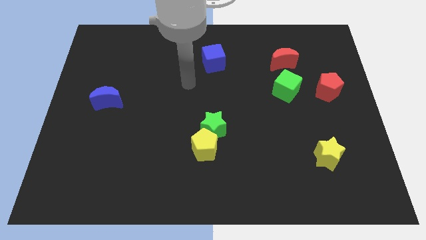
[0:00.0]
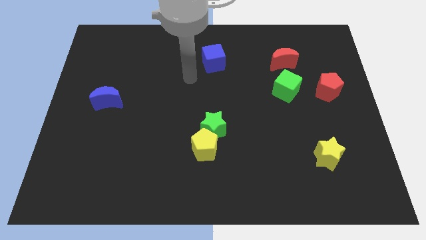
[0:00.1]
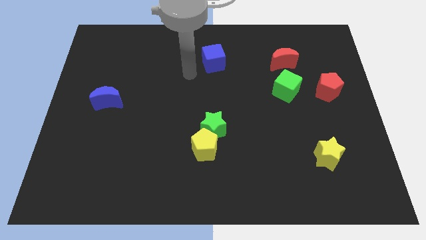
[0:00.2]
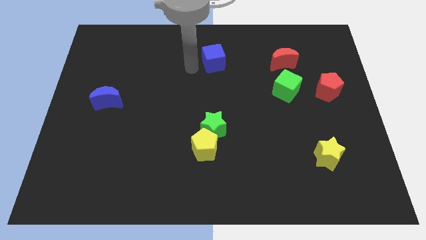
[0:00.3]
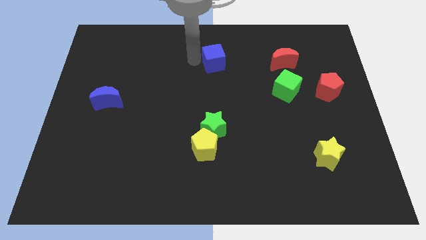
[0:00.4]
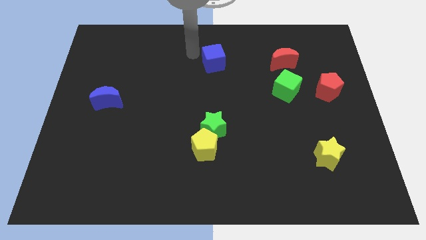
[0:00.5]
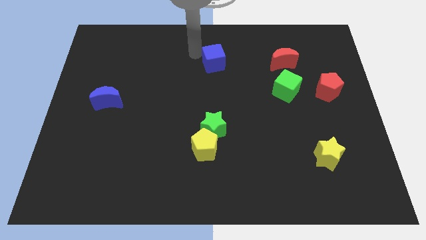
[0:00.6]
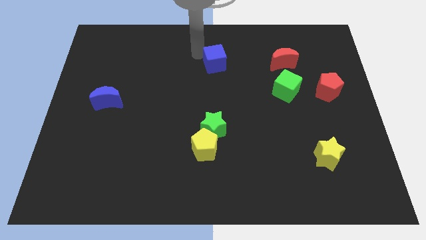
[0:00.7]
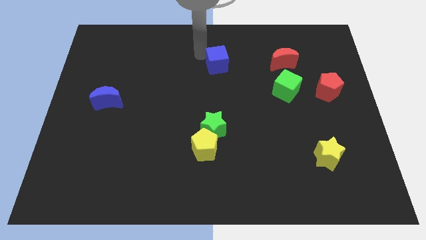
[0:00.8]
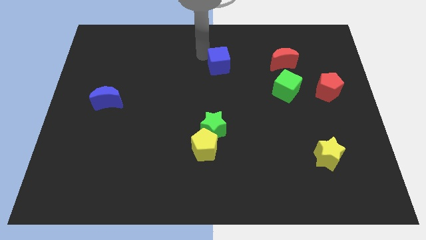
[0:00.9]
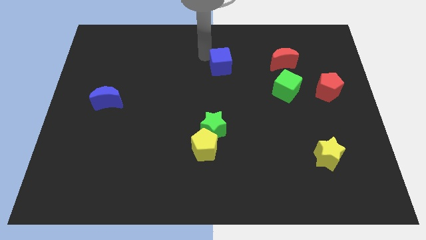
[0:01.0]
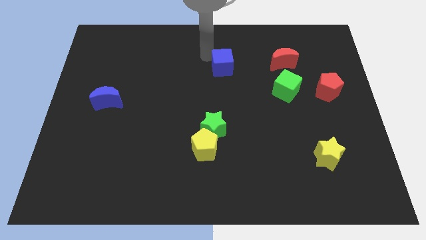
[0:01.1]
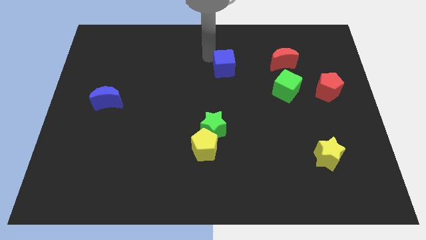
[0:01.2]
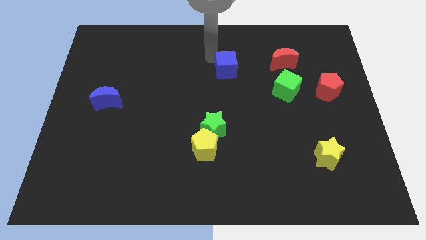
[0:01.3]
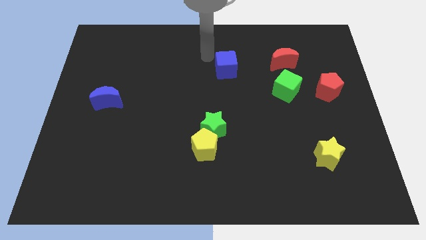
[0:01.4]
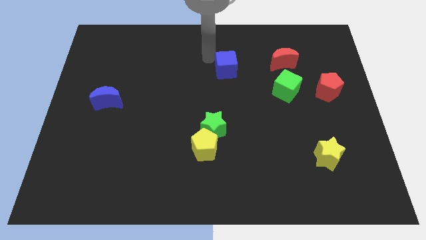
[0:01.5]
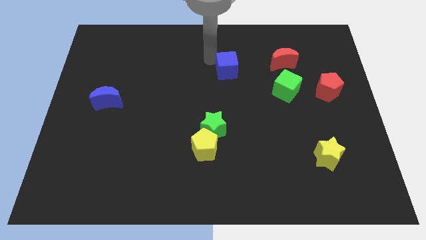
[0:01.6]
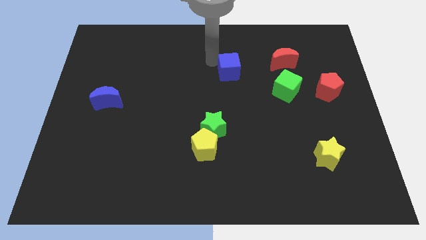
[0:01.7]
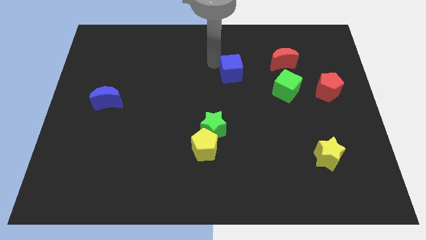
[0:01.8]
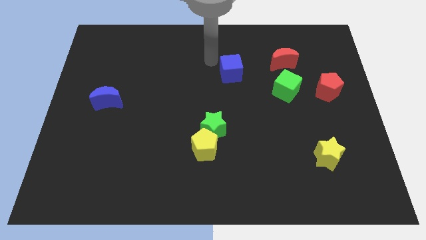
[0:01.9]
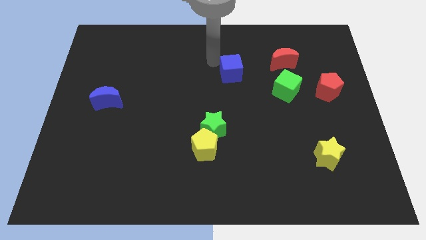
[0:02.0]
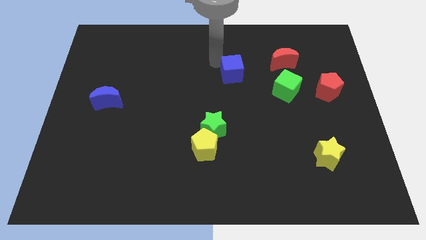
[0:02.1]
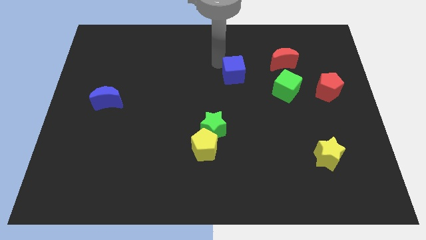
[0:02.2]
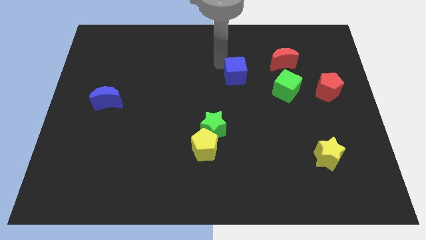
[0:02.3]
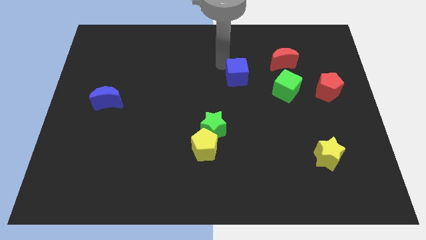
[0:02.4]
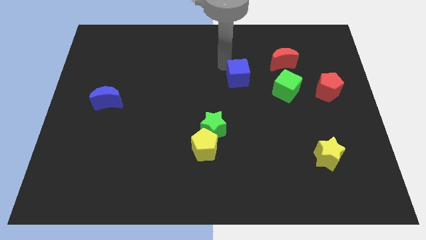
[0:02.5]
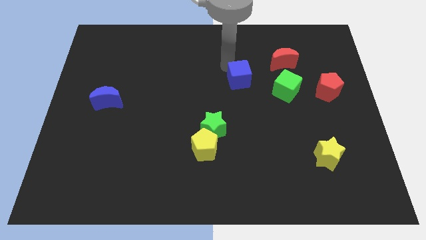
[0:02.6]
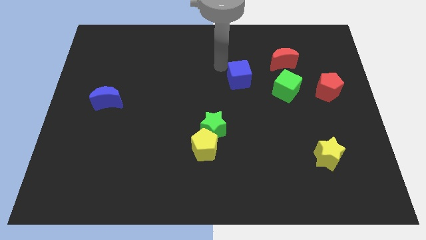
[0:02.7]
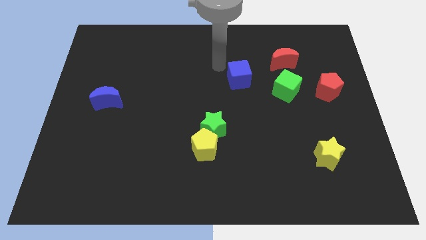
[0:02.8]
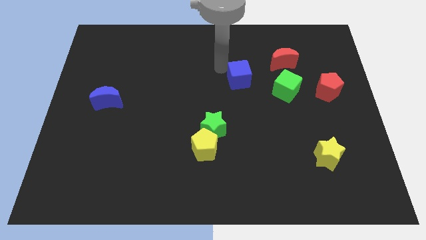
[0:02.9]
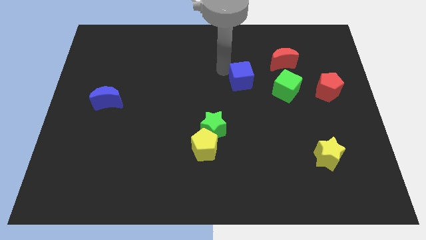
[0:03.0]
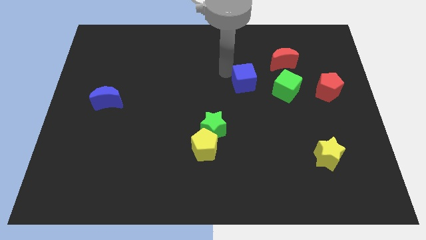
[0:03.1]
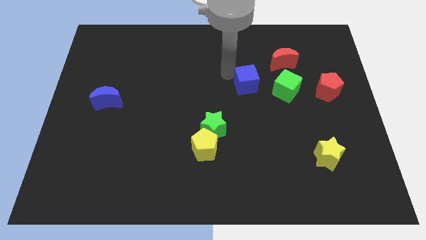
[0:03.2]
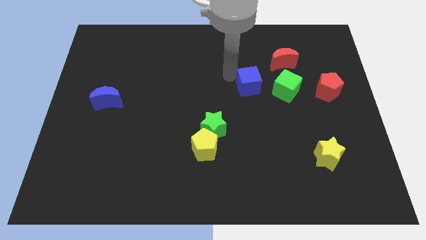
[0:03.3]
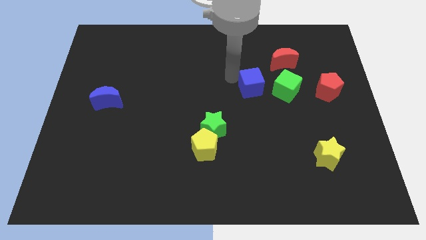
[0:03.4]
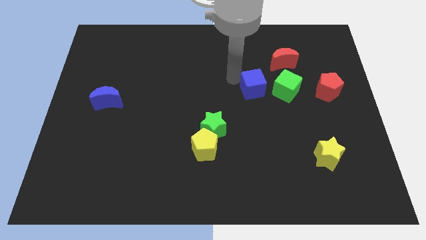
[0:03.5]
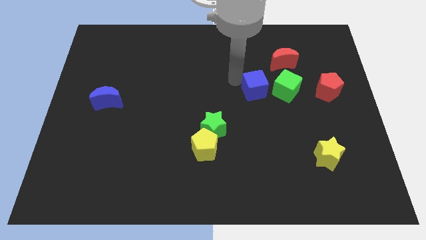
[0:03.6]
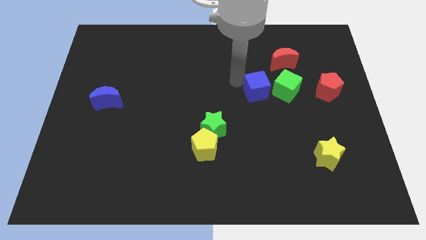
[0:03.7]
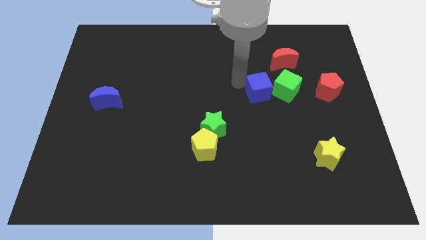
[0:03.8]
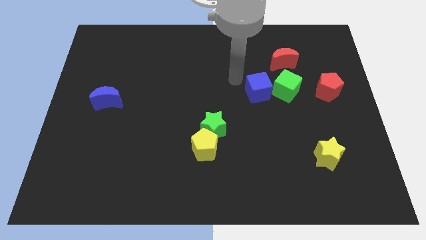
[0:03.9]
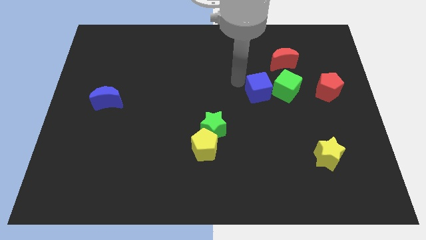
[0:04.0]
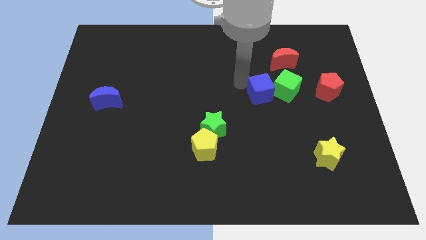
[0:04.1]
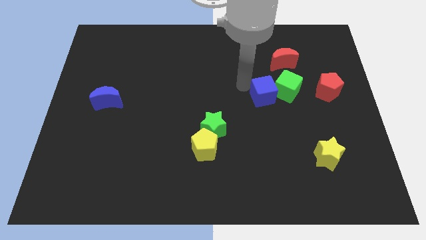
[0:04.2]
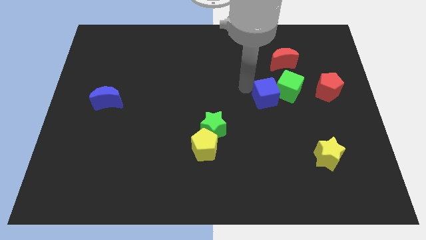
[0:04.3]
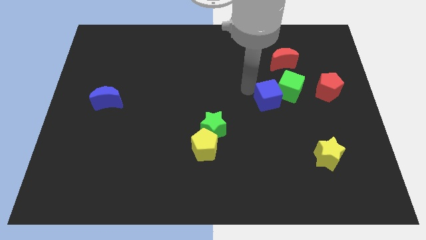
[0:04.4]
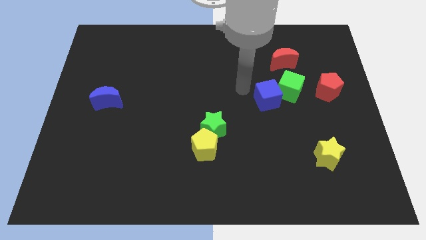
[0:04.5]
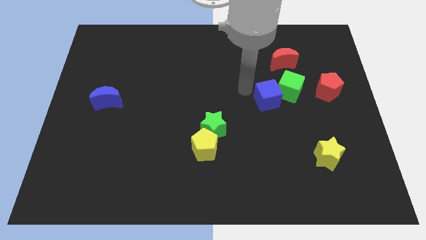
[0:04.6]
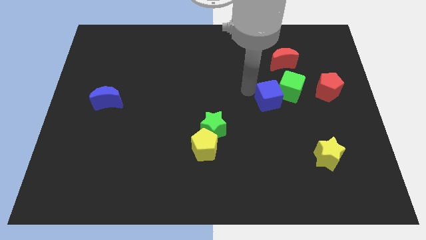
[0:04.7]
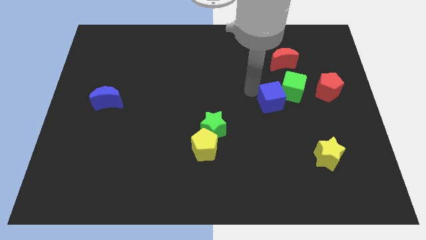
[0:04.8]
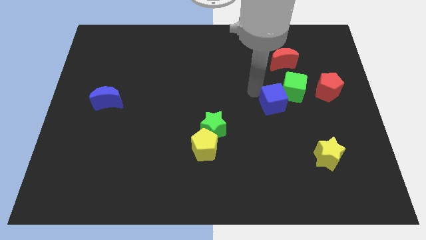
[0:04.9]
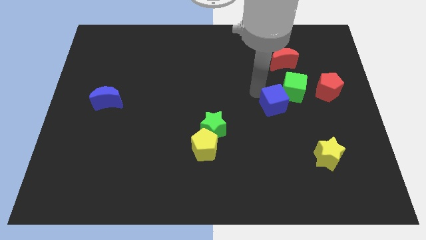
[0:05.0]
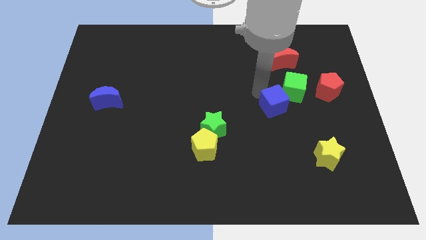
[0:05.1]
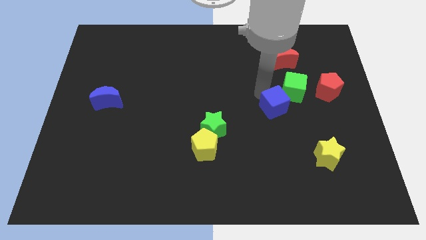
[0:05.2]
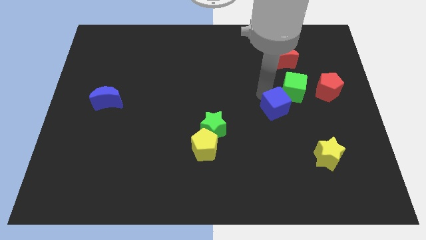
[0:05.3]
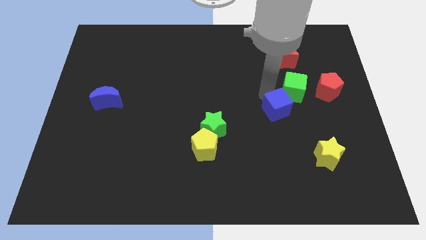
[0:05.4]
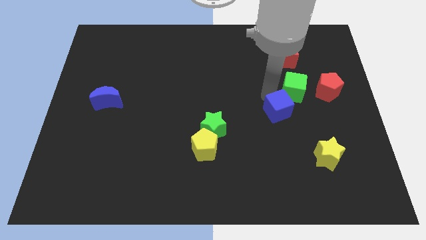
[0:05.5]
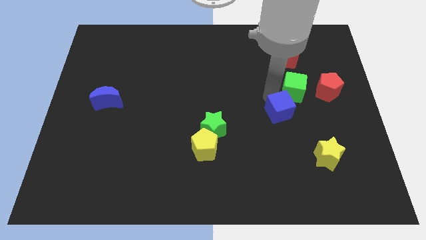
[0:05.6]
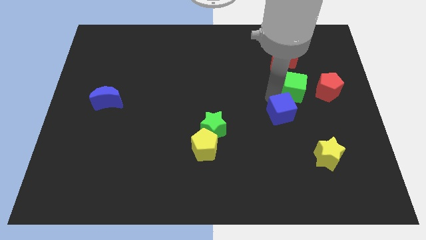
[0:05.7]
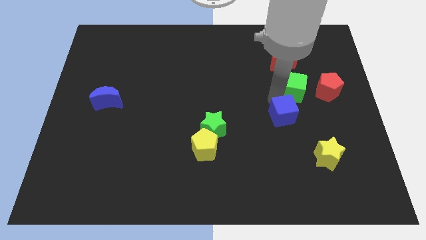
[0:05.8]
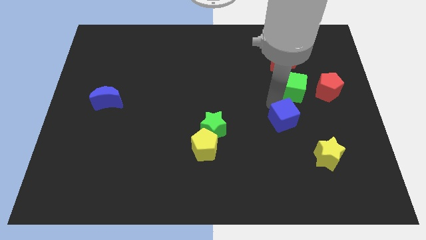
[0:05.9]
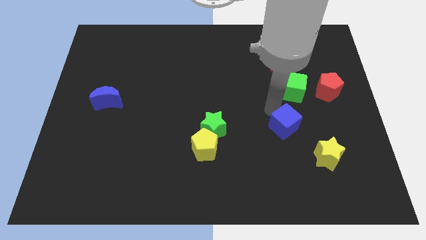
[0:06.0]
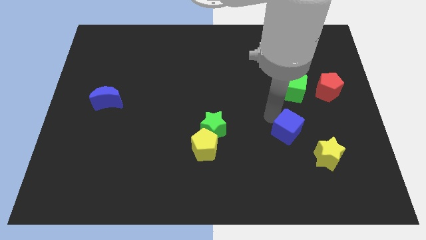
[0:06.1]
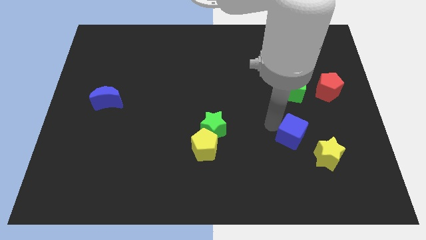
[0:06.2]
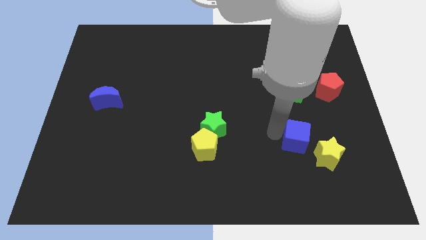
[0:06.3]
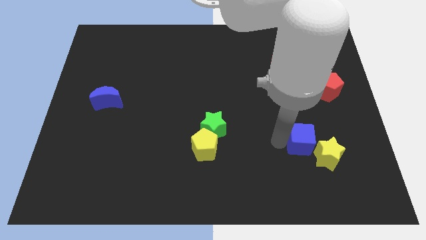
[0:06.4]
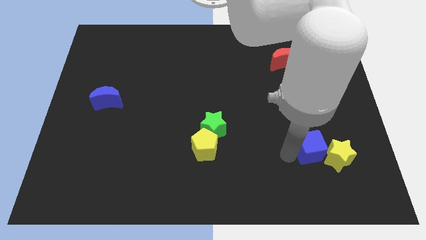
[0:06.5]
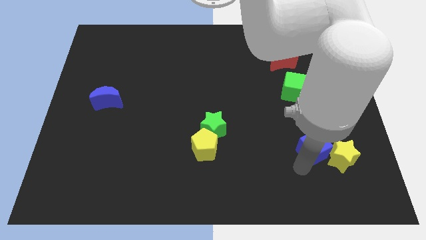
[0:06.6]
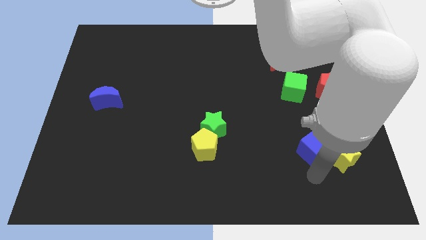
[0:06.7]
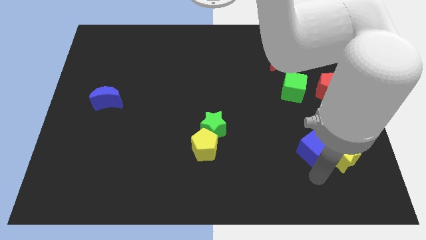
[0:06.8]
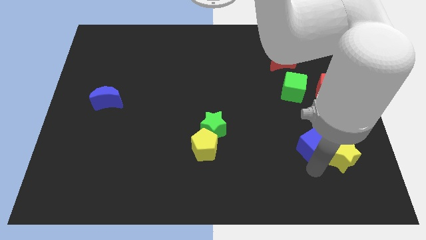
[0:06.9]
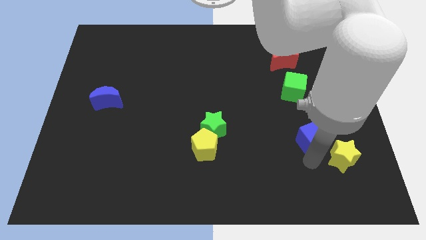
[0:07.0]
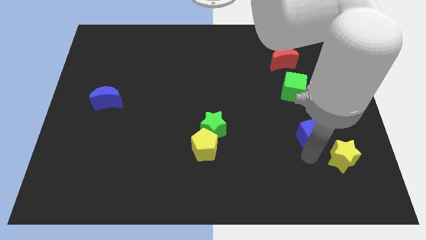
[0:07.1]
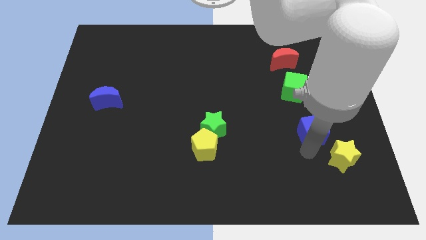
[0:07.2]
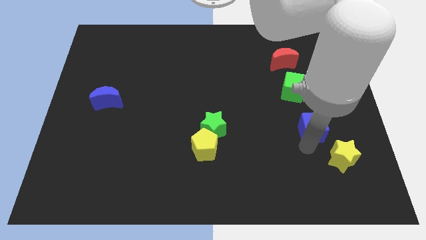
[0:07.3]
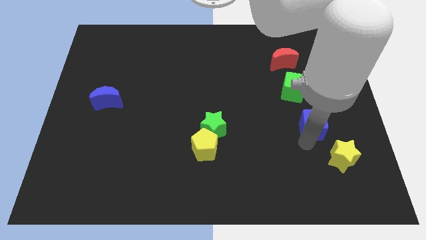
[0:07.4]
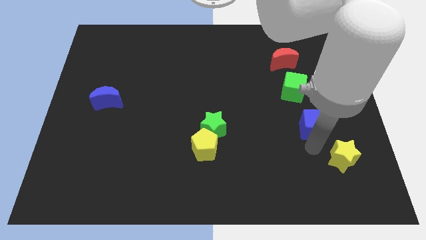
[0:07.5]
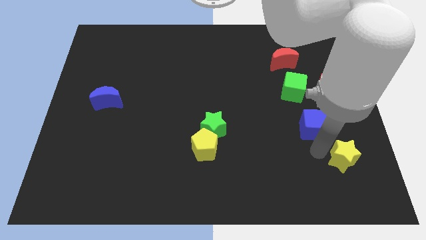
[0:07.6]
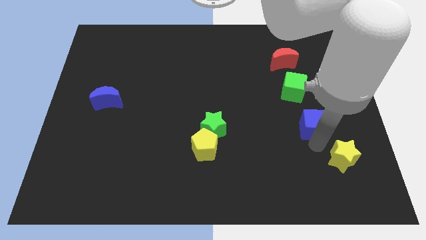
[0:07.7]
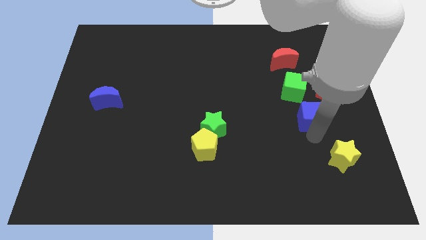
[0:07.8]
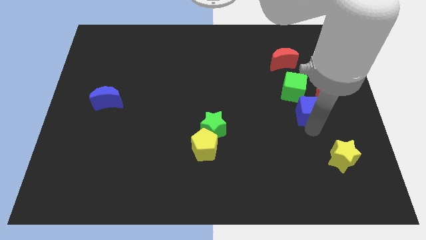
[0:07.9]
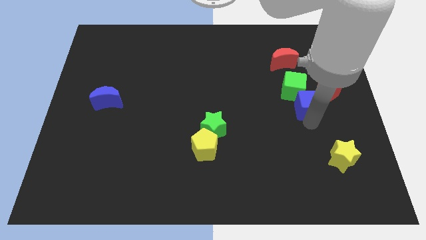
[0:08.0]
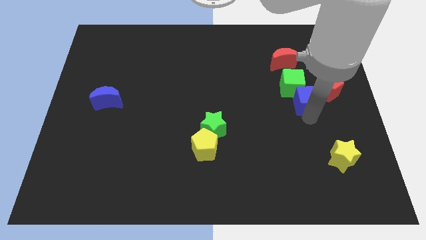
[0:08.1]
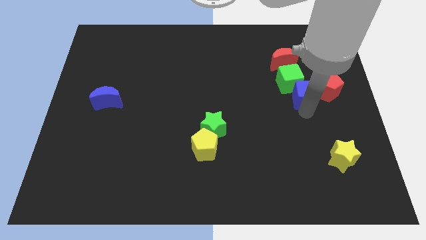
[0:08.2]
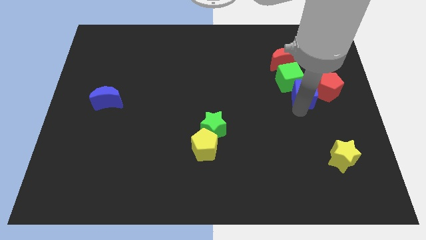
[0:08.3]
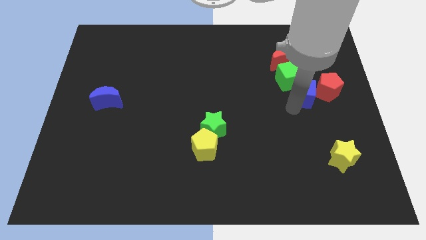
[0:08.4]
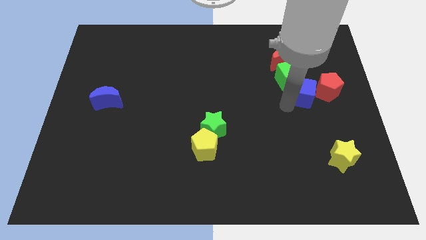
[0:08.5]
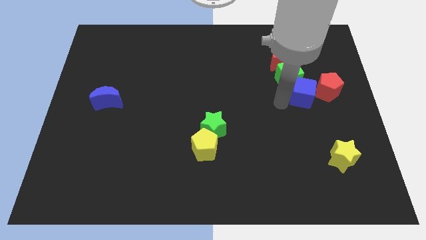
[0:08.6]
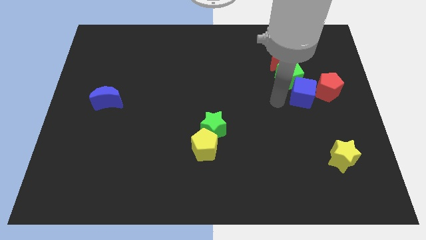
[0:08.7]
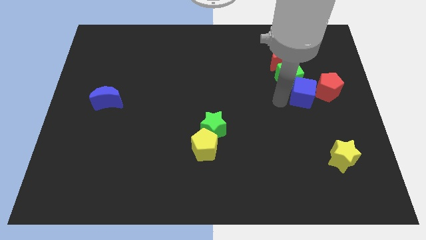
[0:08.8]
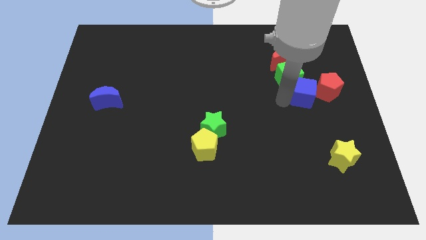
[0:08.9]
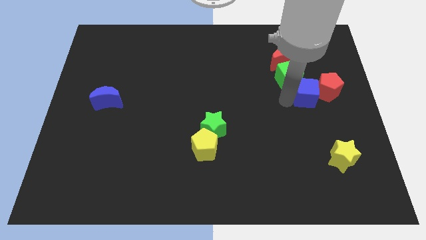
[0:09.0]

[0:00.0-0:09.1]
move the blue cube next to the red pentagon
